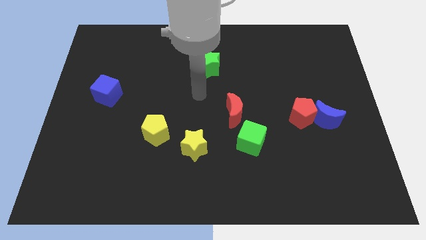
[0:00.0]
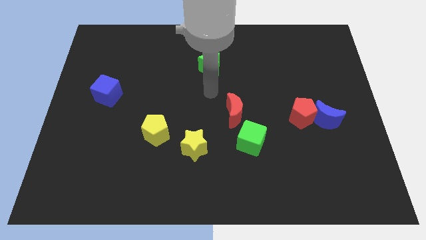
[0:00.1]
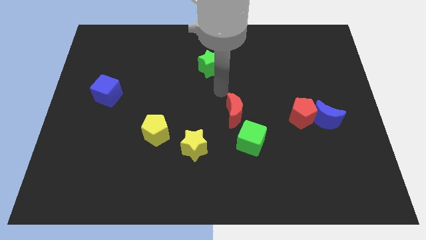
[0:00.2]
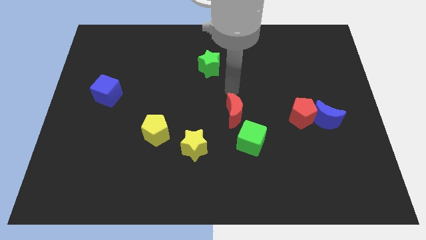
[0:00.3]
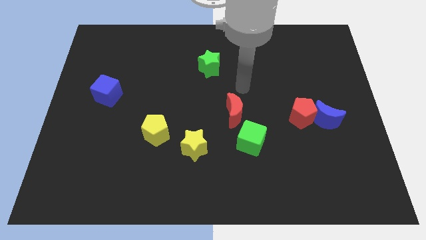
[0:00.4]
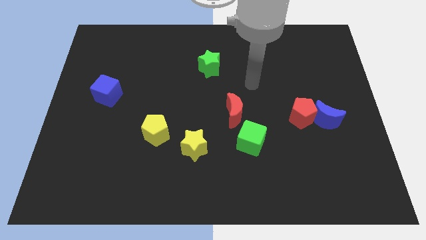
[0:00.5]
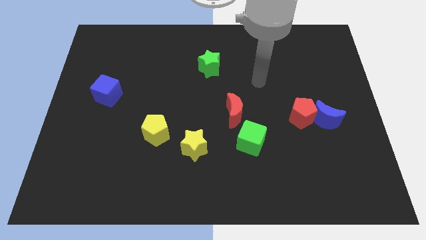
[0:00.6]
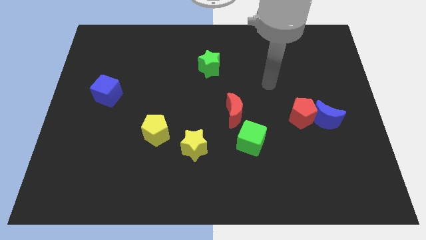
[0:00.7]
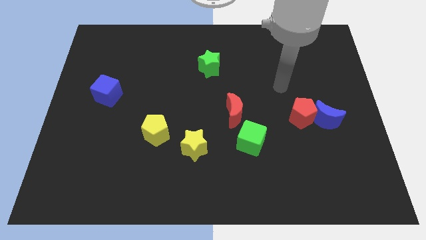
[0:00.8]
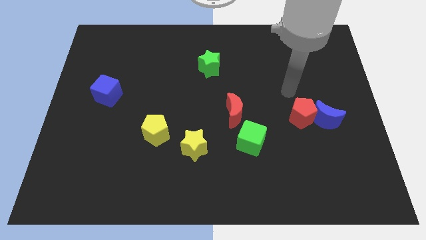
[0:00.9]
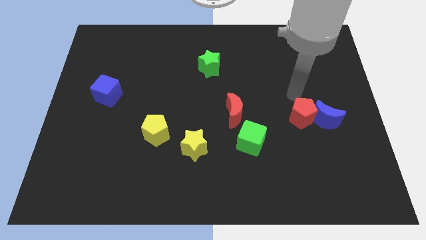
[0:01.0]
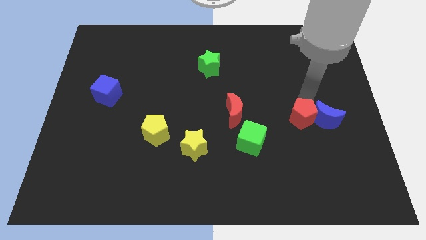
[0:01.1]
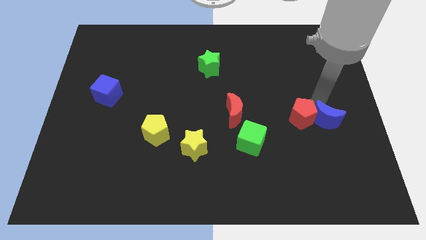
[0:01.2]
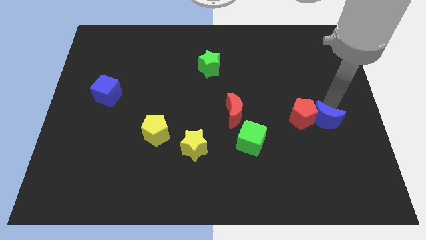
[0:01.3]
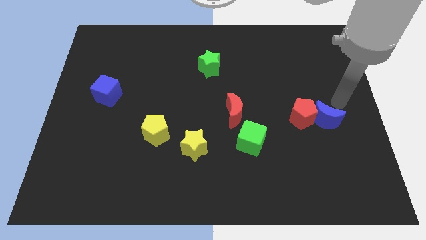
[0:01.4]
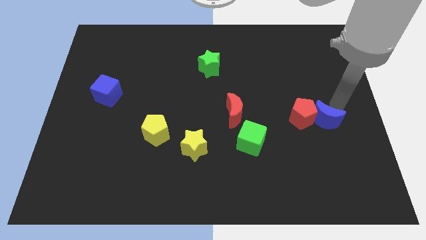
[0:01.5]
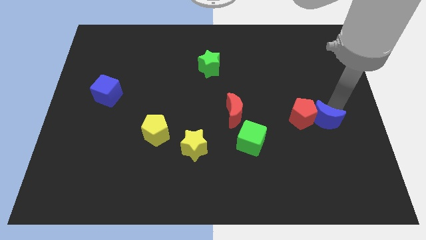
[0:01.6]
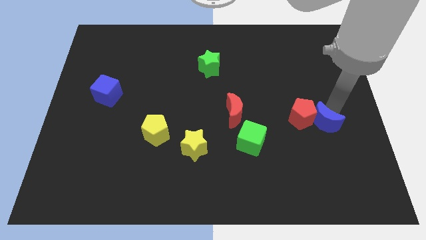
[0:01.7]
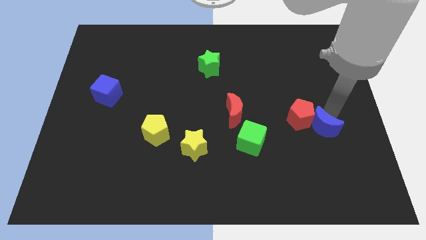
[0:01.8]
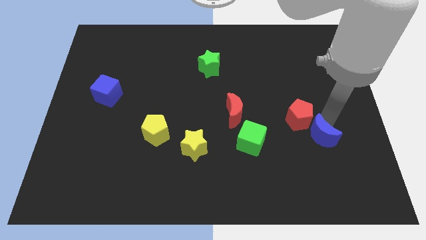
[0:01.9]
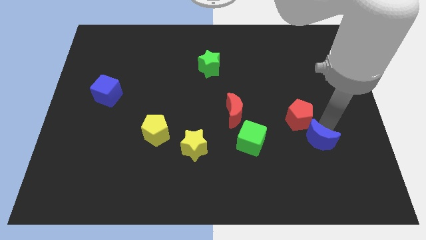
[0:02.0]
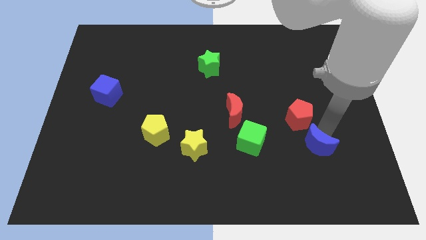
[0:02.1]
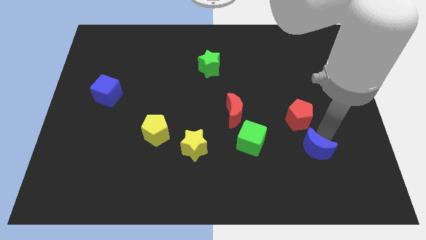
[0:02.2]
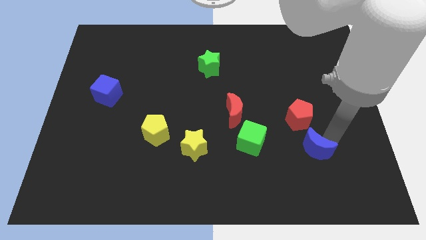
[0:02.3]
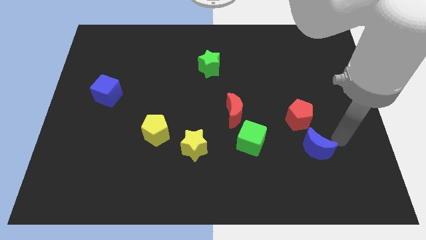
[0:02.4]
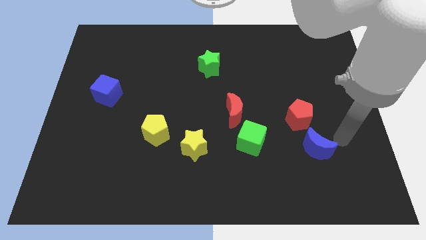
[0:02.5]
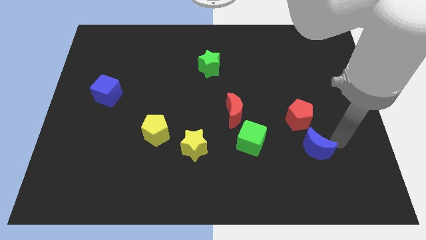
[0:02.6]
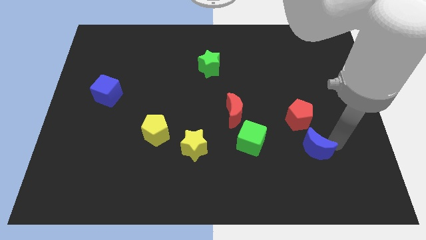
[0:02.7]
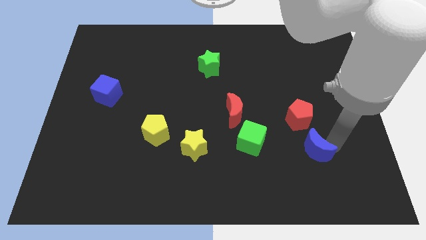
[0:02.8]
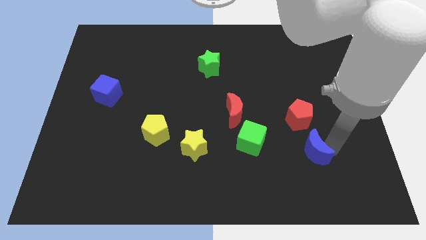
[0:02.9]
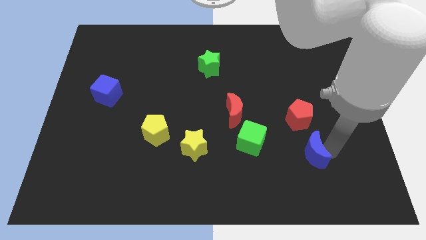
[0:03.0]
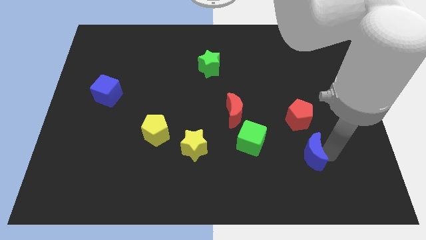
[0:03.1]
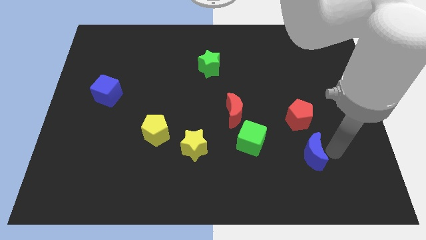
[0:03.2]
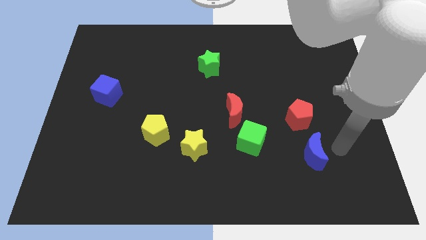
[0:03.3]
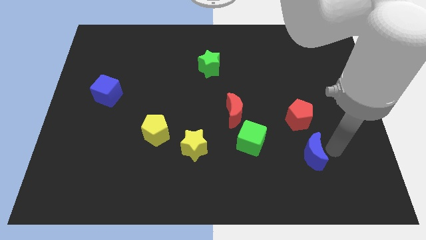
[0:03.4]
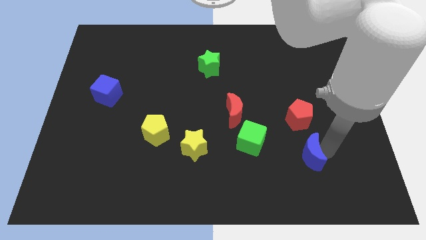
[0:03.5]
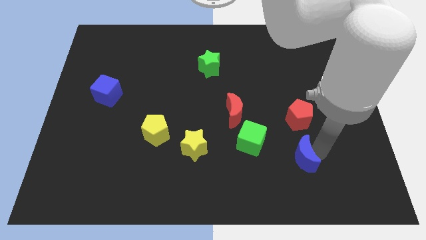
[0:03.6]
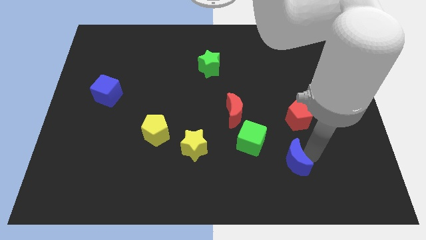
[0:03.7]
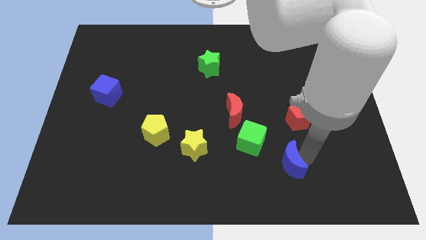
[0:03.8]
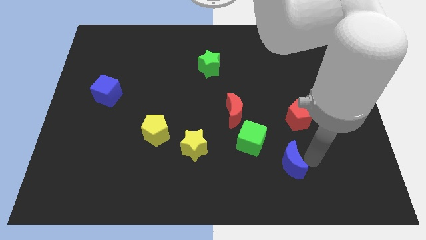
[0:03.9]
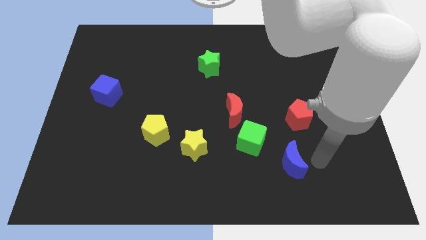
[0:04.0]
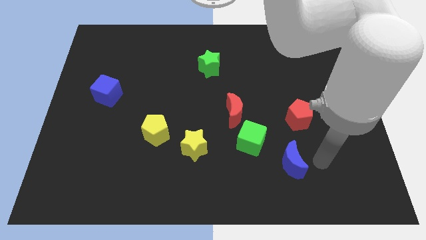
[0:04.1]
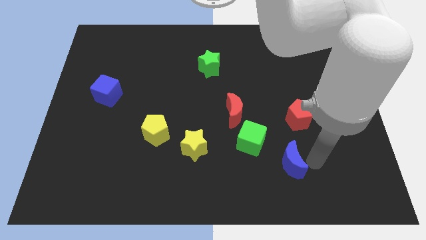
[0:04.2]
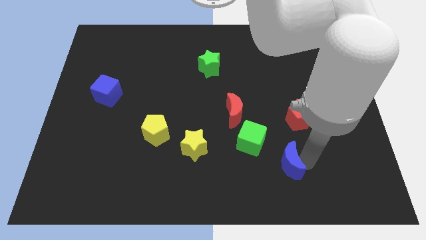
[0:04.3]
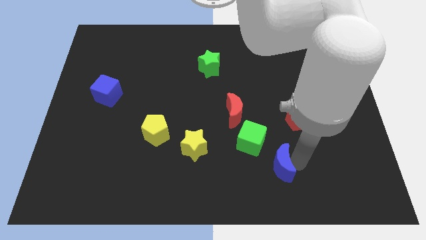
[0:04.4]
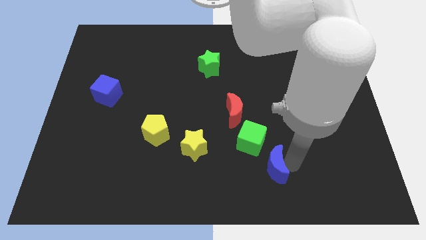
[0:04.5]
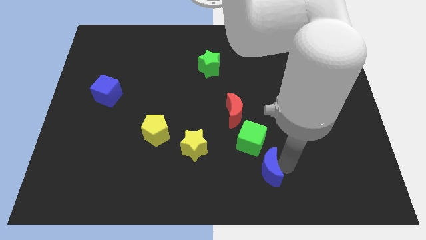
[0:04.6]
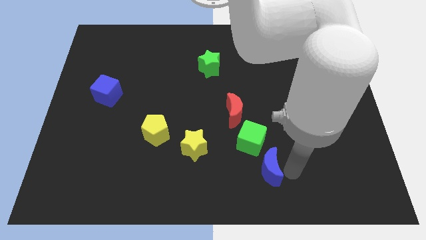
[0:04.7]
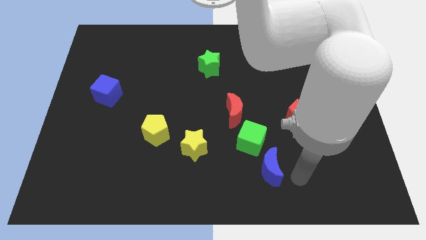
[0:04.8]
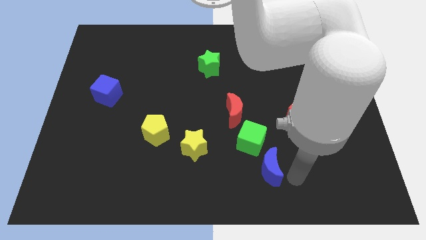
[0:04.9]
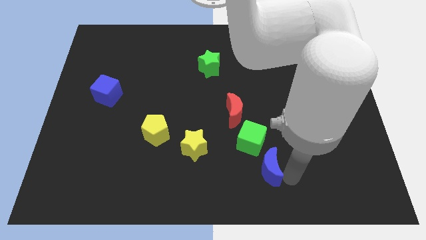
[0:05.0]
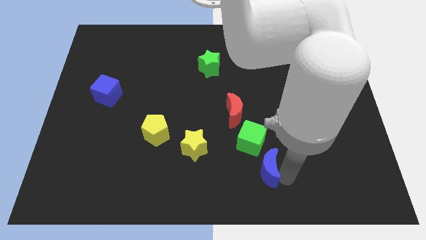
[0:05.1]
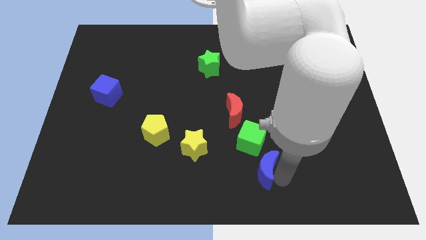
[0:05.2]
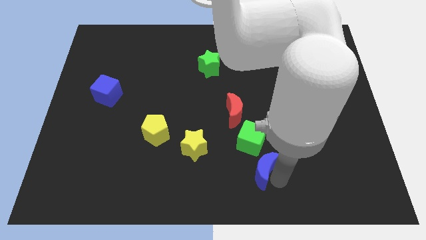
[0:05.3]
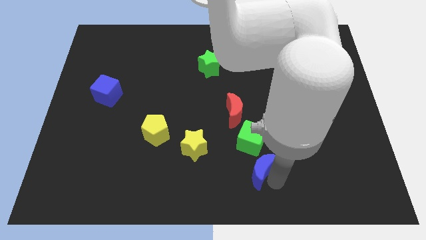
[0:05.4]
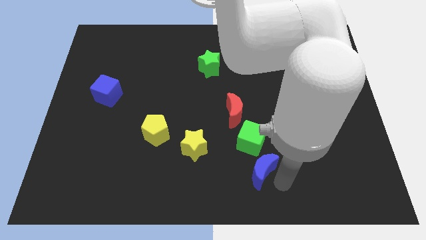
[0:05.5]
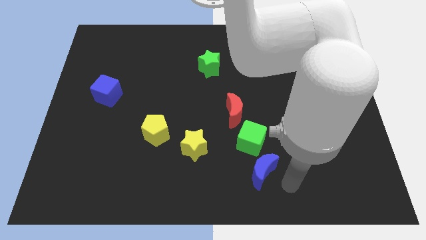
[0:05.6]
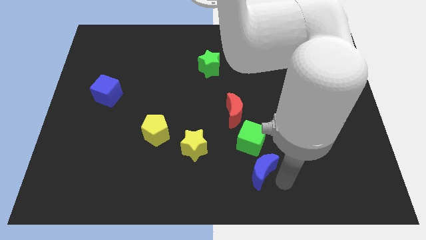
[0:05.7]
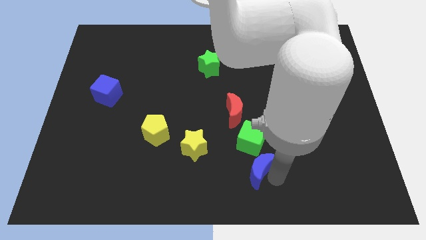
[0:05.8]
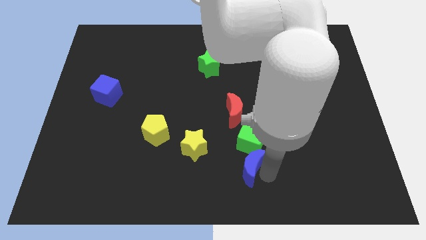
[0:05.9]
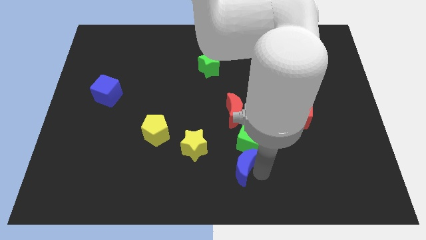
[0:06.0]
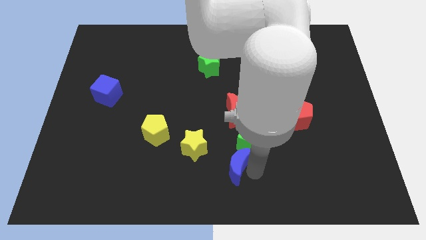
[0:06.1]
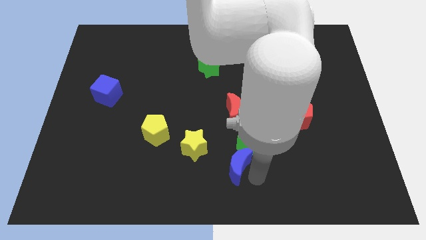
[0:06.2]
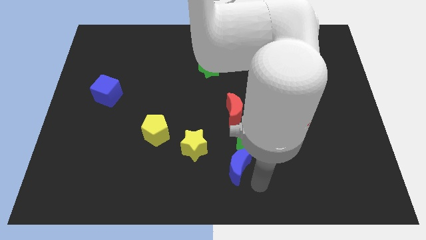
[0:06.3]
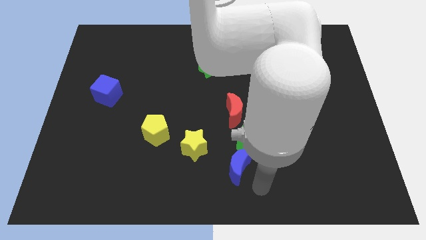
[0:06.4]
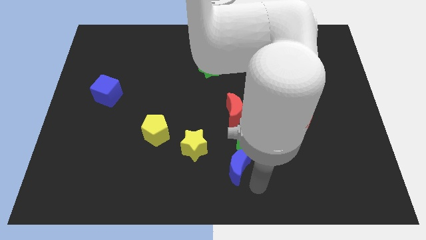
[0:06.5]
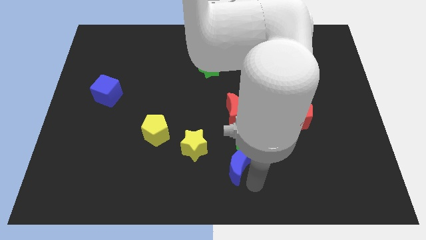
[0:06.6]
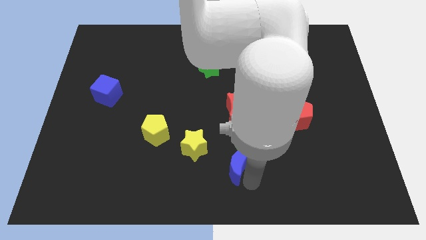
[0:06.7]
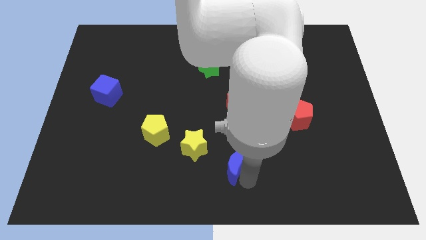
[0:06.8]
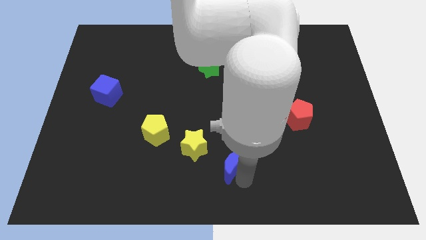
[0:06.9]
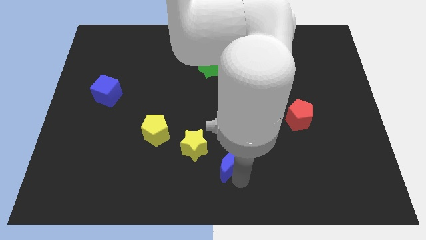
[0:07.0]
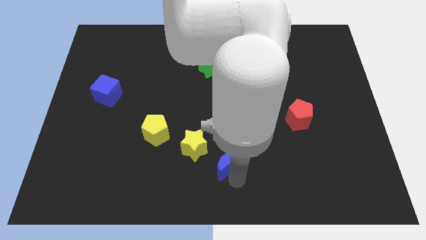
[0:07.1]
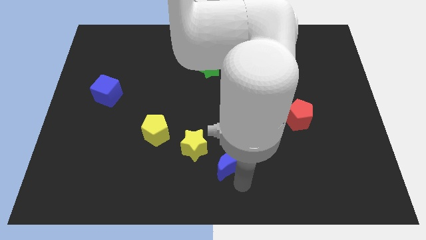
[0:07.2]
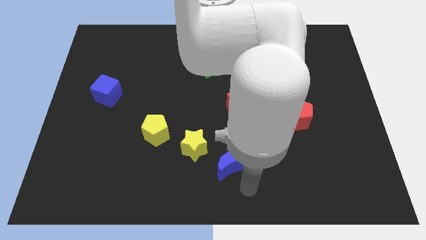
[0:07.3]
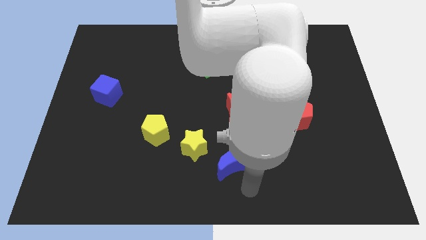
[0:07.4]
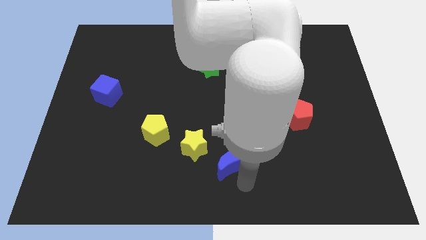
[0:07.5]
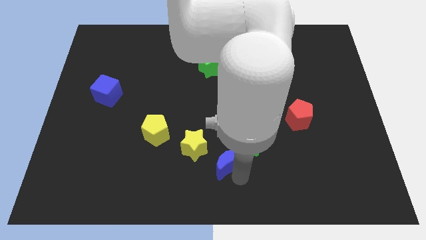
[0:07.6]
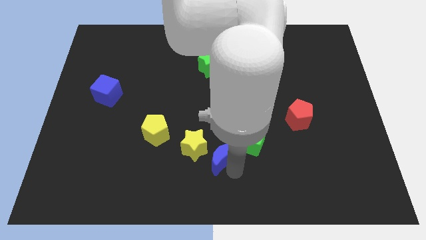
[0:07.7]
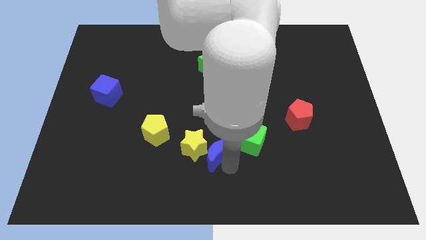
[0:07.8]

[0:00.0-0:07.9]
move the blue moon to the yellow star
